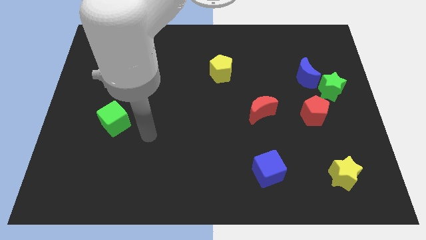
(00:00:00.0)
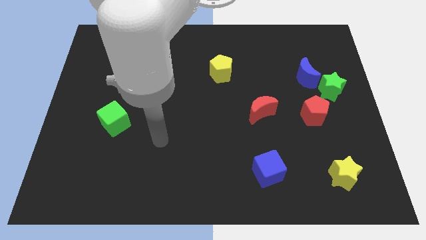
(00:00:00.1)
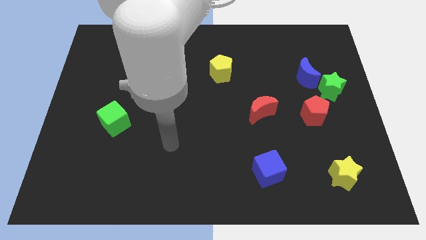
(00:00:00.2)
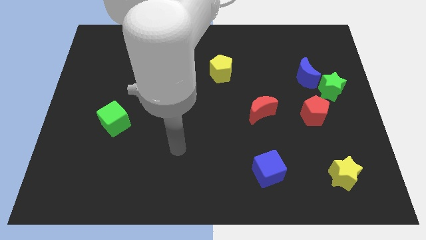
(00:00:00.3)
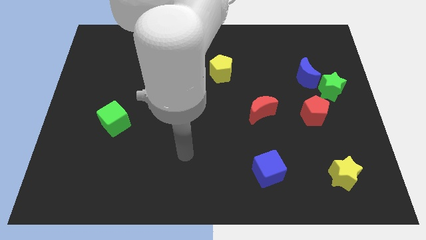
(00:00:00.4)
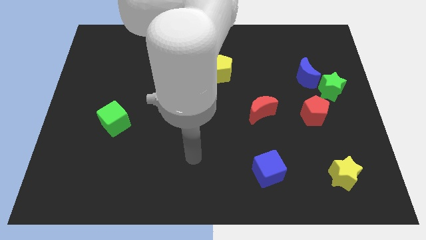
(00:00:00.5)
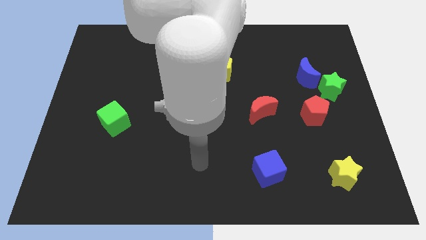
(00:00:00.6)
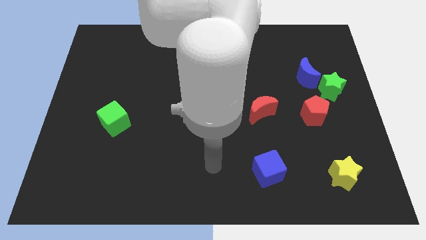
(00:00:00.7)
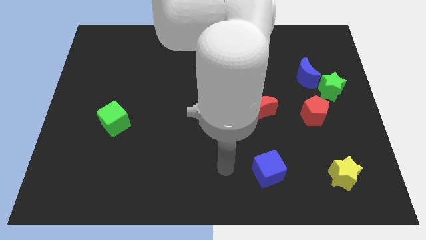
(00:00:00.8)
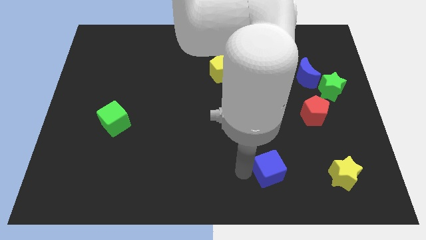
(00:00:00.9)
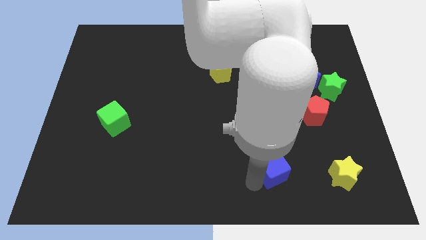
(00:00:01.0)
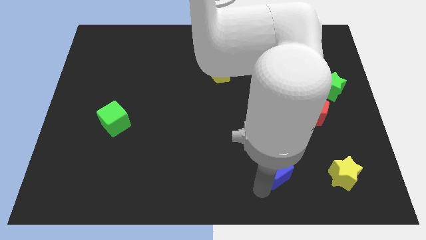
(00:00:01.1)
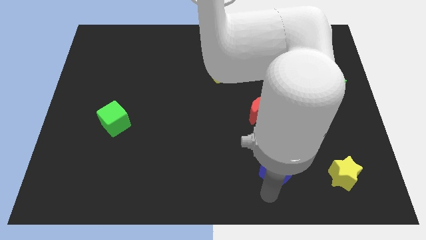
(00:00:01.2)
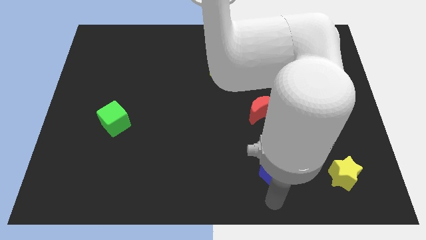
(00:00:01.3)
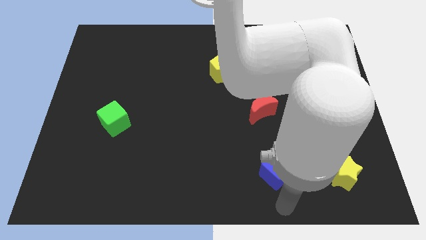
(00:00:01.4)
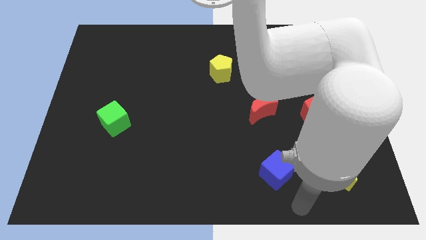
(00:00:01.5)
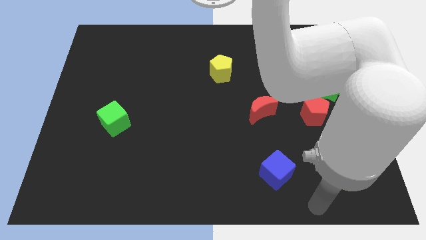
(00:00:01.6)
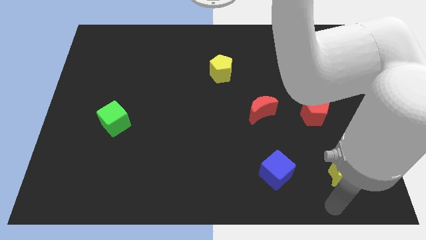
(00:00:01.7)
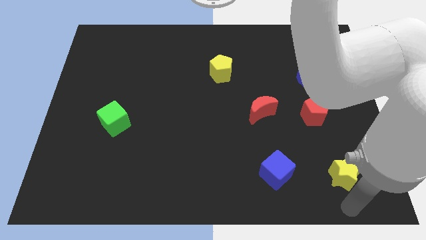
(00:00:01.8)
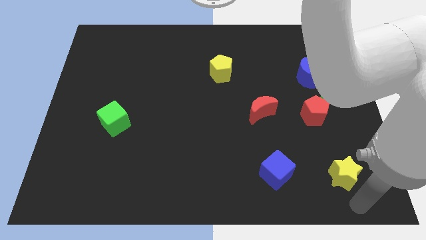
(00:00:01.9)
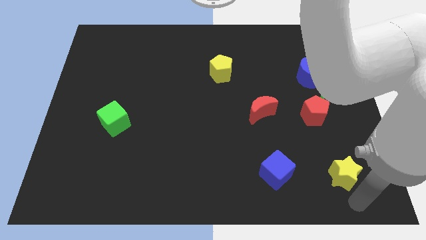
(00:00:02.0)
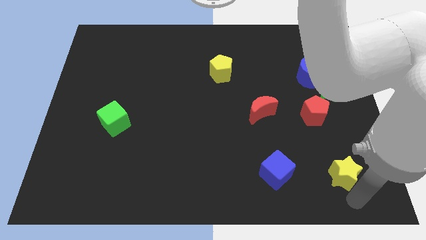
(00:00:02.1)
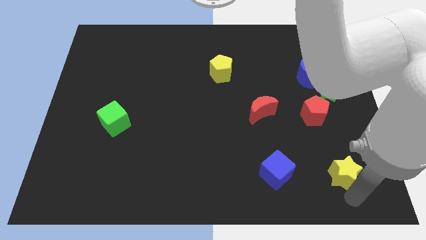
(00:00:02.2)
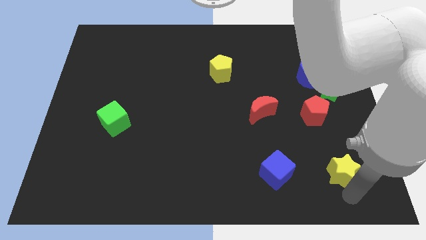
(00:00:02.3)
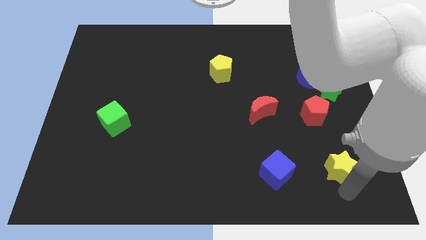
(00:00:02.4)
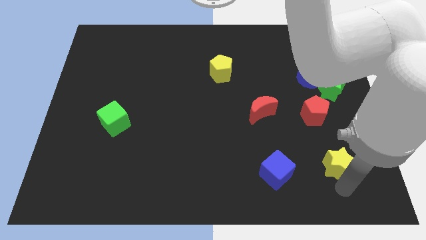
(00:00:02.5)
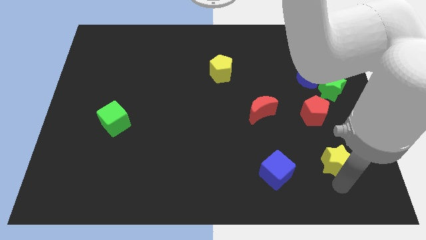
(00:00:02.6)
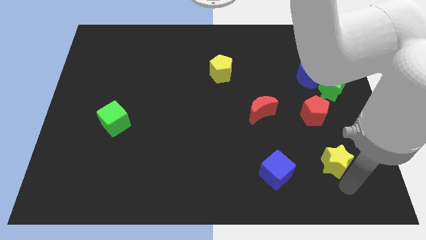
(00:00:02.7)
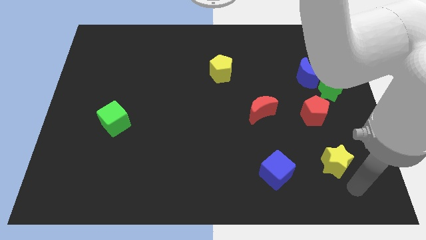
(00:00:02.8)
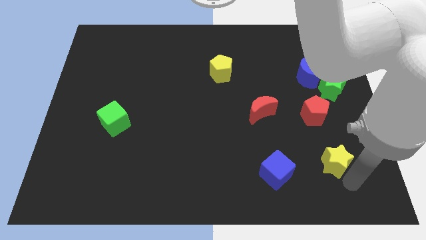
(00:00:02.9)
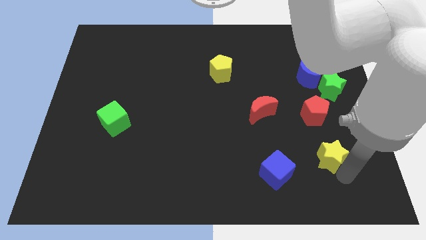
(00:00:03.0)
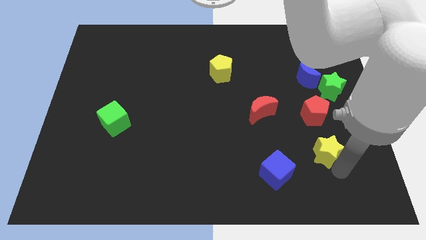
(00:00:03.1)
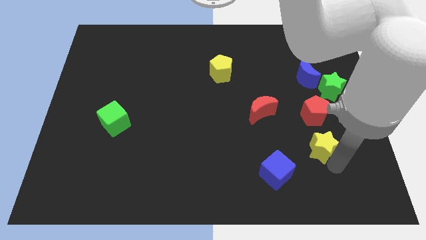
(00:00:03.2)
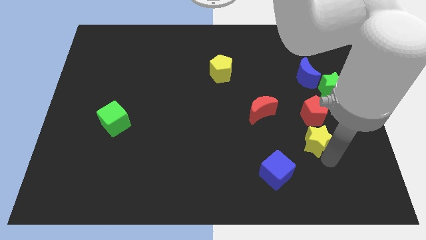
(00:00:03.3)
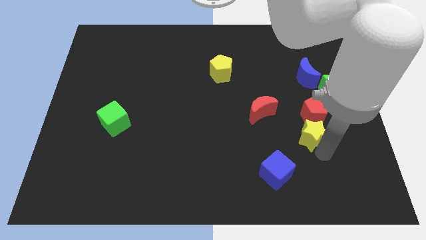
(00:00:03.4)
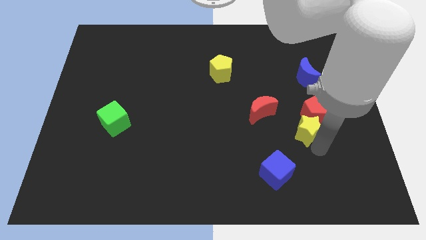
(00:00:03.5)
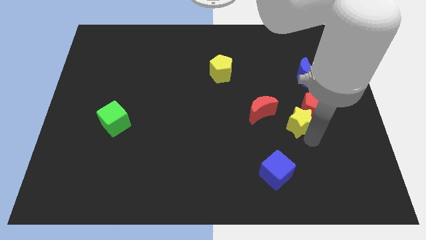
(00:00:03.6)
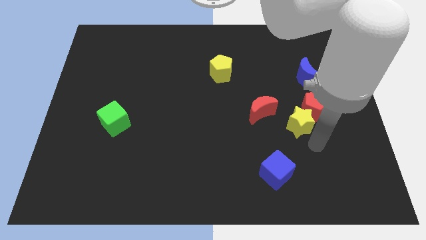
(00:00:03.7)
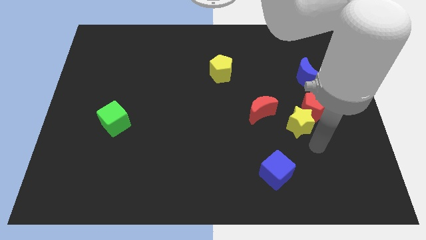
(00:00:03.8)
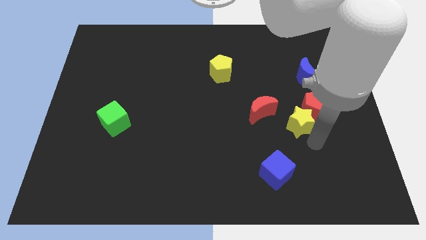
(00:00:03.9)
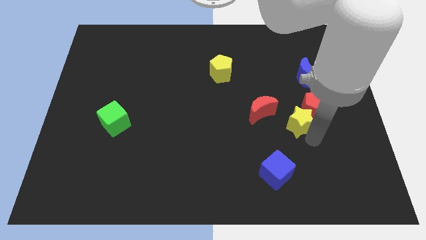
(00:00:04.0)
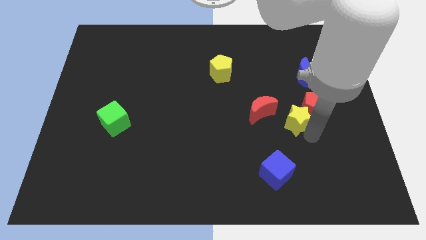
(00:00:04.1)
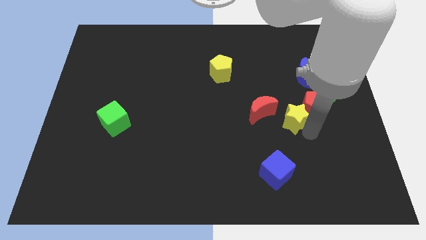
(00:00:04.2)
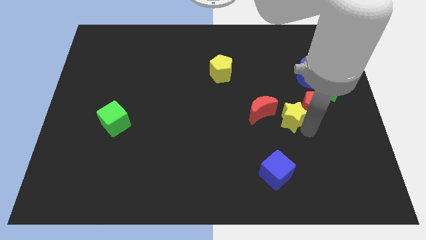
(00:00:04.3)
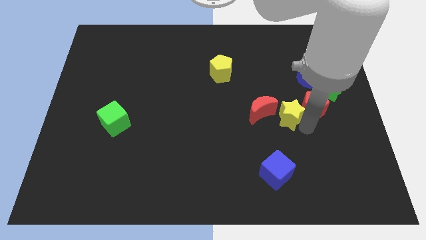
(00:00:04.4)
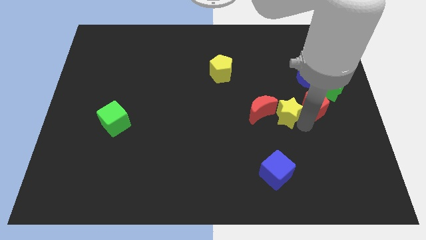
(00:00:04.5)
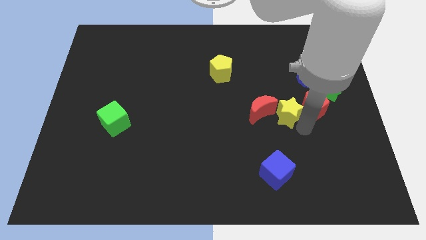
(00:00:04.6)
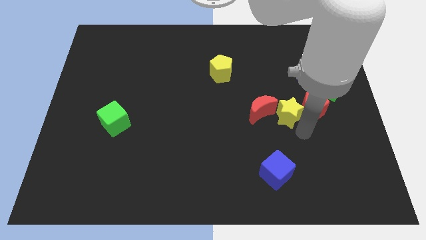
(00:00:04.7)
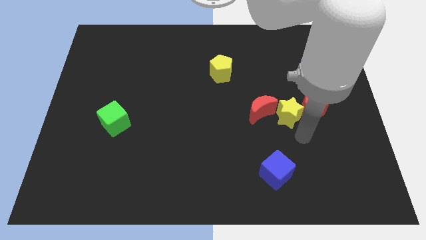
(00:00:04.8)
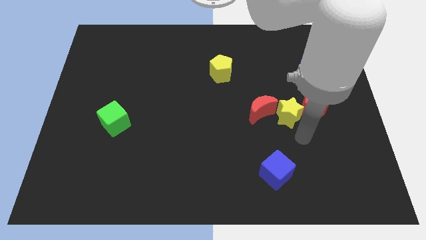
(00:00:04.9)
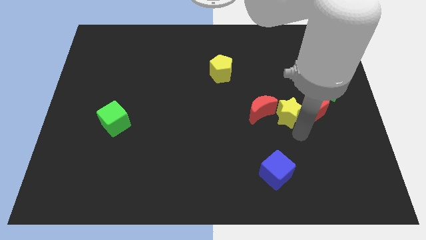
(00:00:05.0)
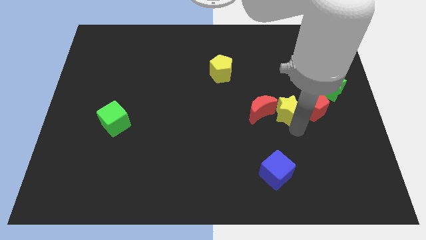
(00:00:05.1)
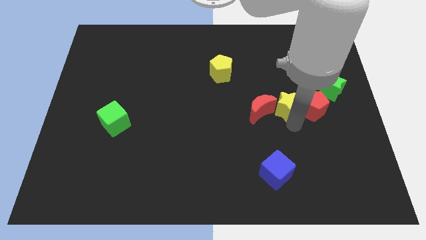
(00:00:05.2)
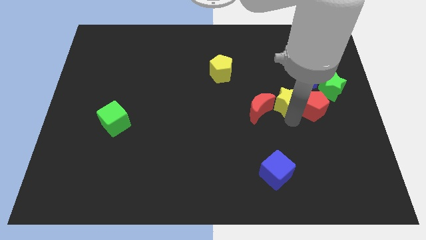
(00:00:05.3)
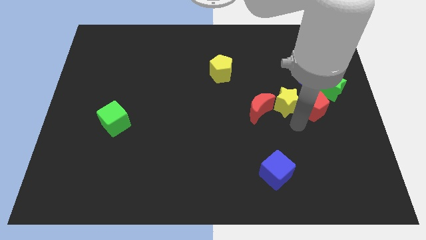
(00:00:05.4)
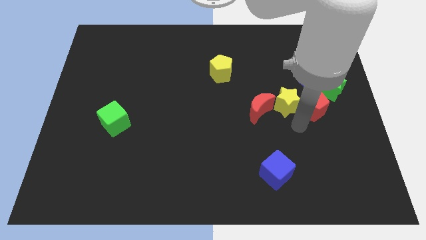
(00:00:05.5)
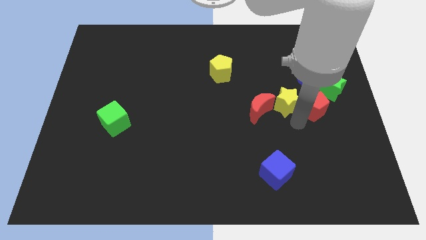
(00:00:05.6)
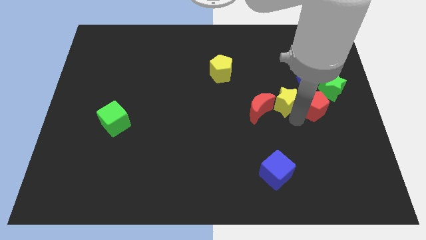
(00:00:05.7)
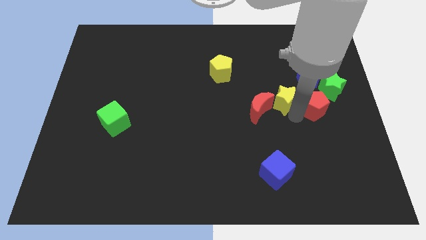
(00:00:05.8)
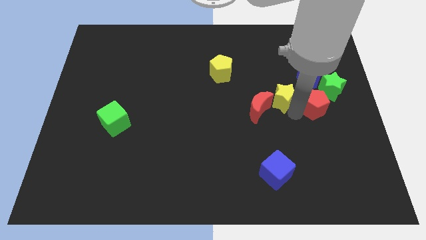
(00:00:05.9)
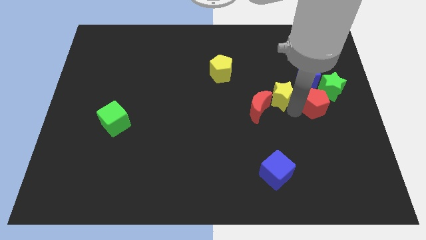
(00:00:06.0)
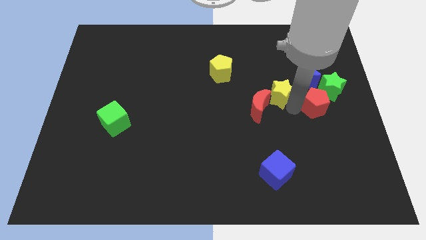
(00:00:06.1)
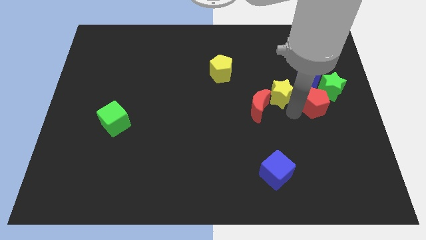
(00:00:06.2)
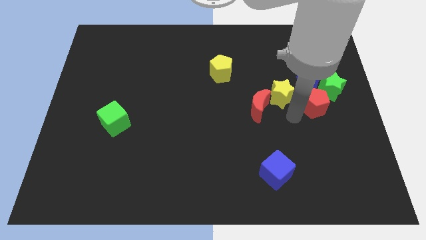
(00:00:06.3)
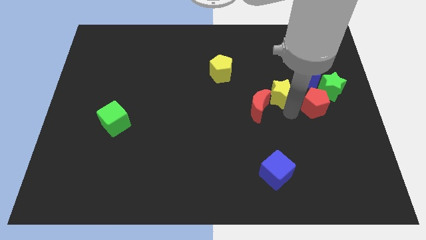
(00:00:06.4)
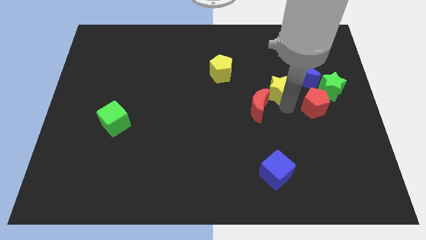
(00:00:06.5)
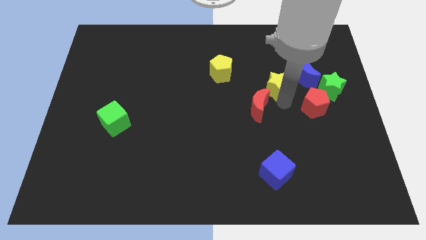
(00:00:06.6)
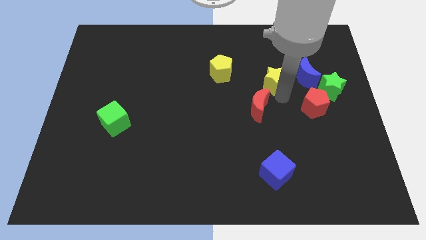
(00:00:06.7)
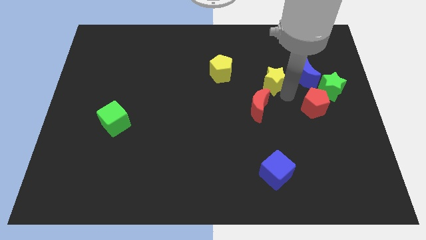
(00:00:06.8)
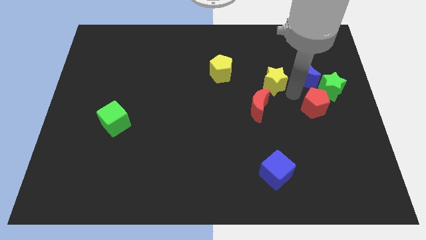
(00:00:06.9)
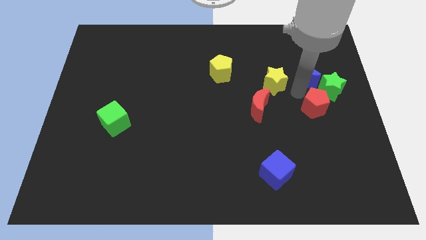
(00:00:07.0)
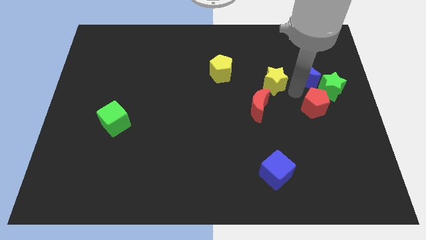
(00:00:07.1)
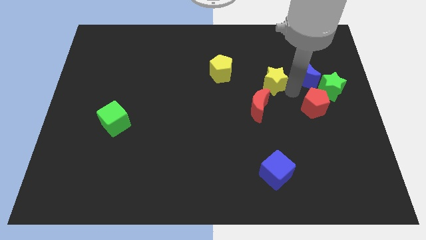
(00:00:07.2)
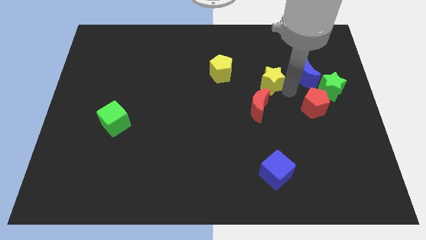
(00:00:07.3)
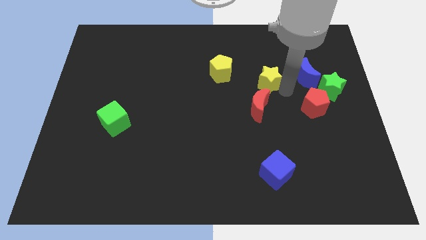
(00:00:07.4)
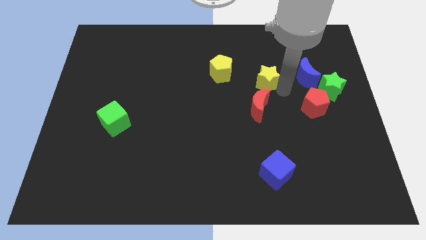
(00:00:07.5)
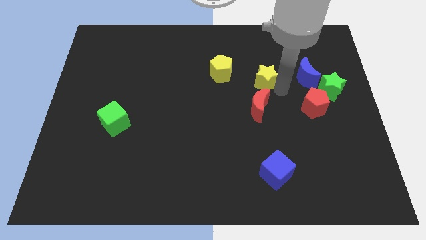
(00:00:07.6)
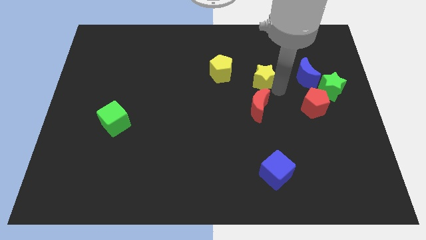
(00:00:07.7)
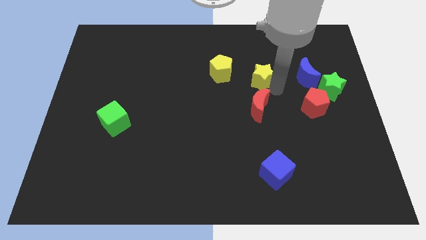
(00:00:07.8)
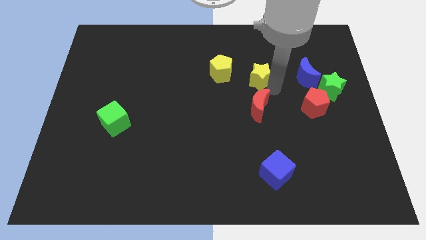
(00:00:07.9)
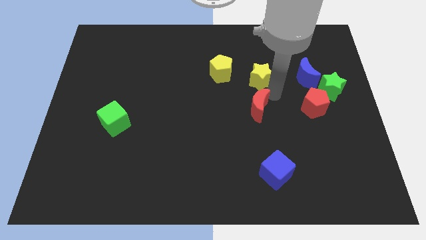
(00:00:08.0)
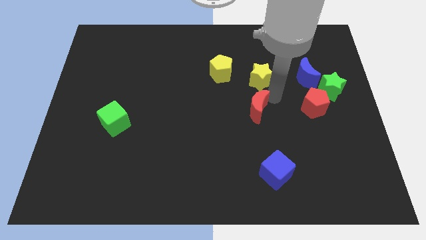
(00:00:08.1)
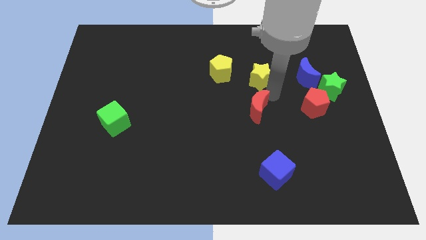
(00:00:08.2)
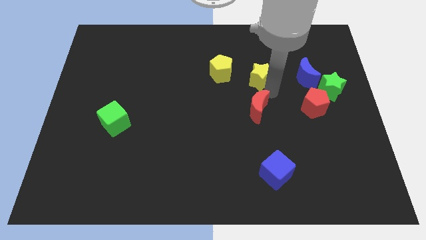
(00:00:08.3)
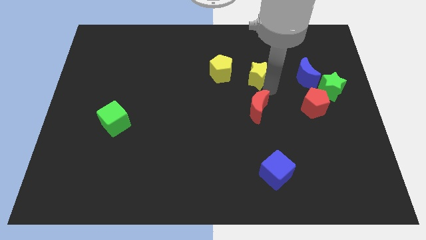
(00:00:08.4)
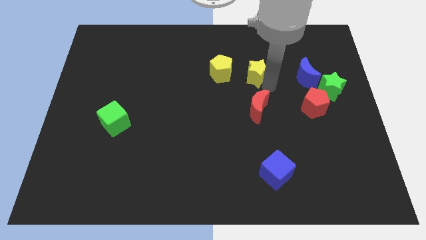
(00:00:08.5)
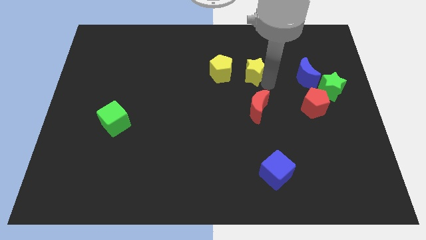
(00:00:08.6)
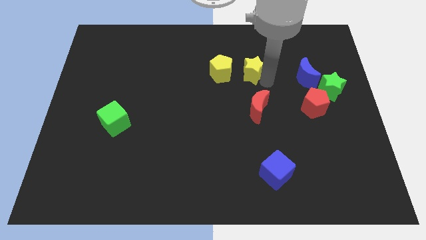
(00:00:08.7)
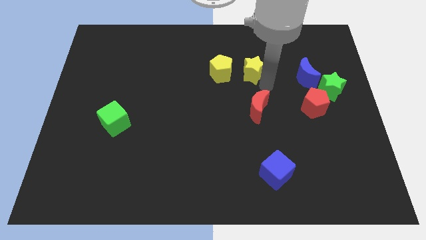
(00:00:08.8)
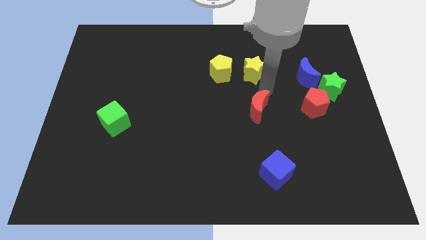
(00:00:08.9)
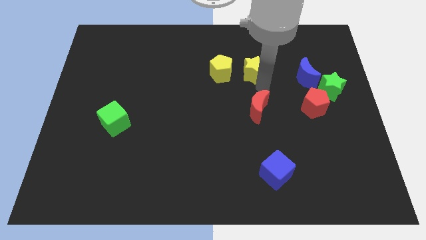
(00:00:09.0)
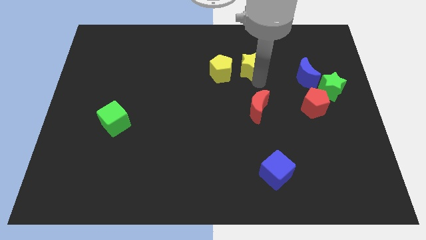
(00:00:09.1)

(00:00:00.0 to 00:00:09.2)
push the yellow star to the top right side of the yellow pentagon
